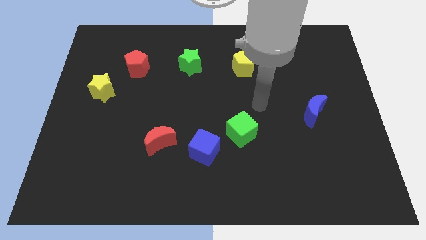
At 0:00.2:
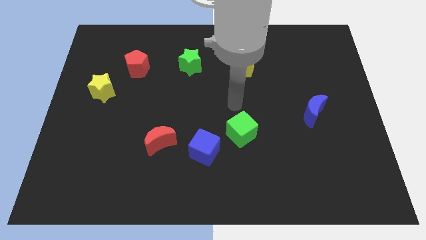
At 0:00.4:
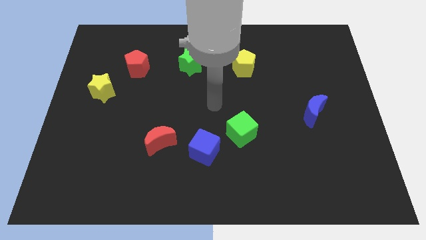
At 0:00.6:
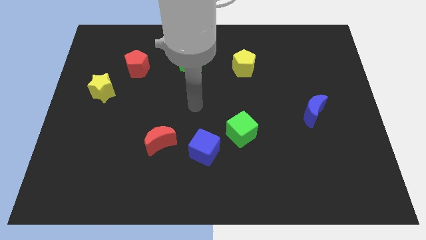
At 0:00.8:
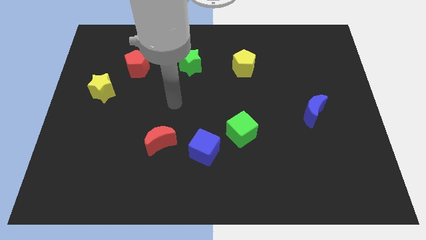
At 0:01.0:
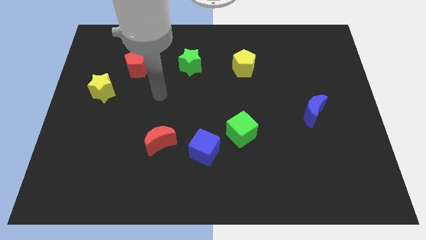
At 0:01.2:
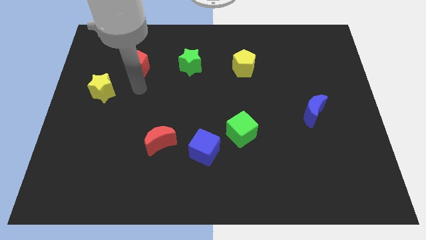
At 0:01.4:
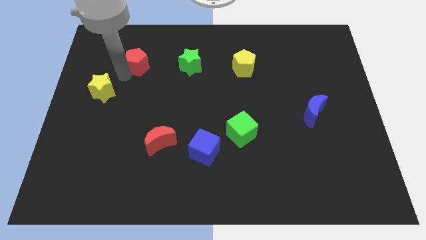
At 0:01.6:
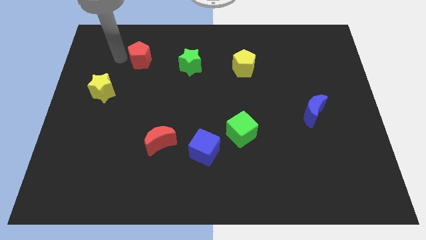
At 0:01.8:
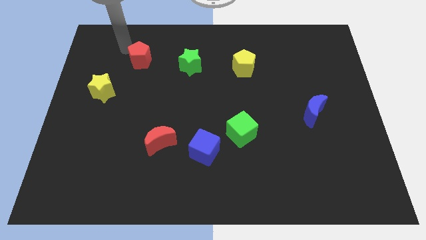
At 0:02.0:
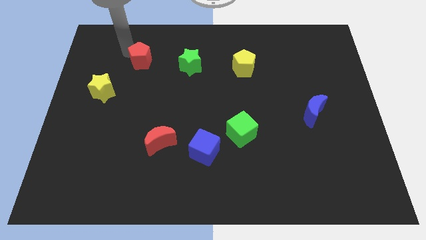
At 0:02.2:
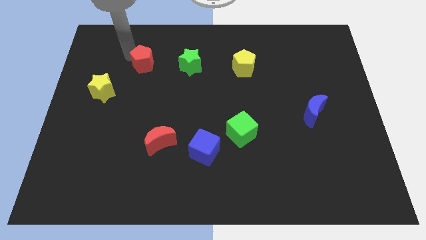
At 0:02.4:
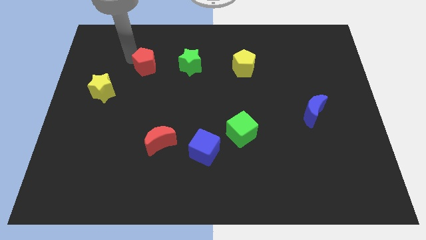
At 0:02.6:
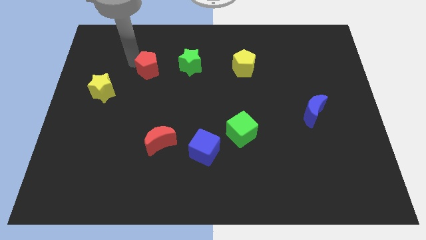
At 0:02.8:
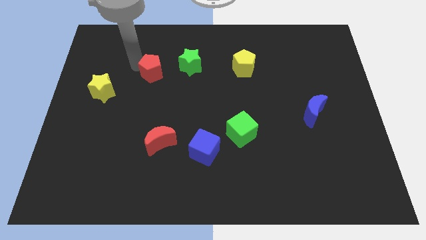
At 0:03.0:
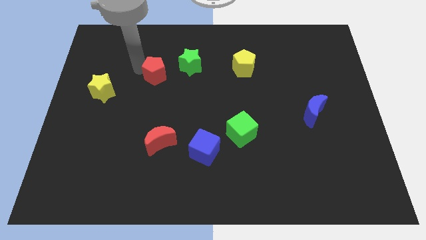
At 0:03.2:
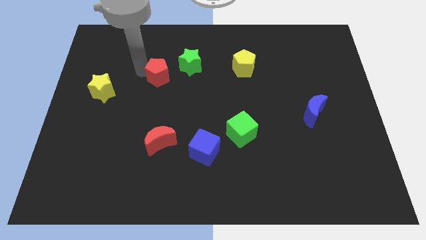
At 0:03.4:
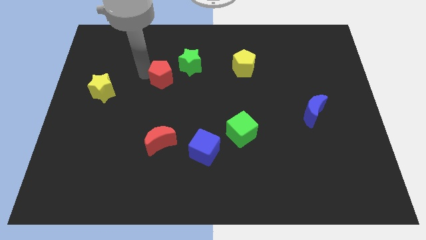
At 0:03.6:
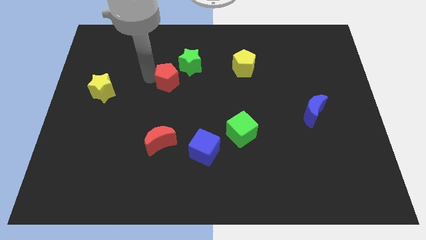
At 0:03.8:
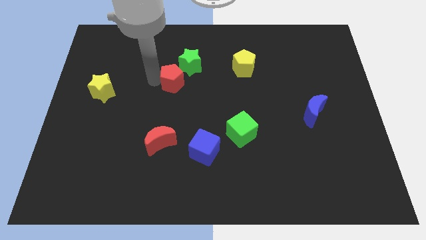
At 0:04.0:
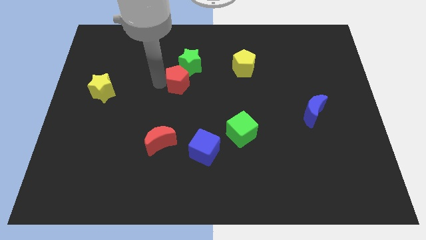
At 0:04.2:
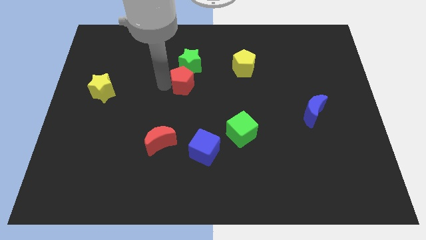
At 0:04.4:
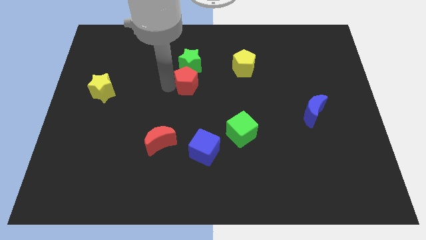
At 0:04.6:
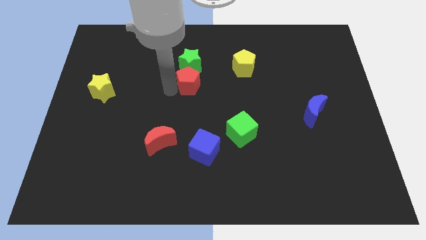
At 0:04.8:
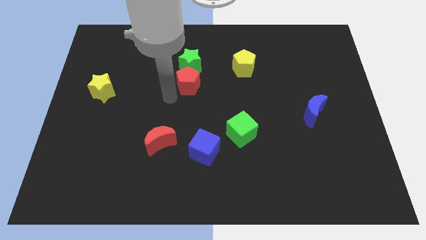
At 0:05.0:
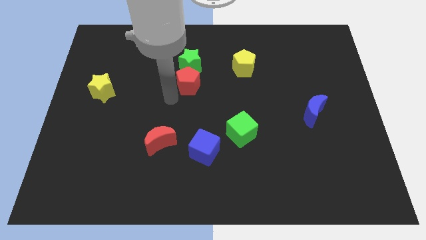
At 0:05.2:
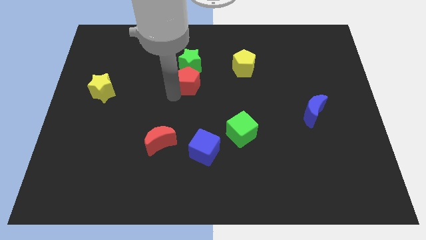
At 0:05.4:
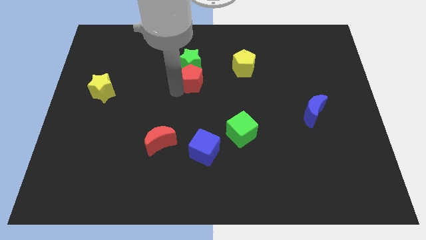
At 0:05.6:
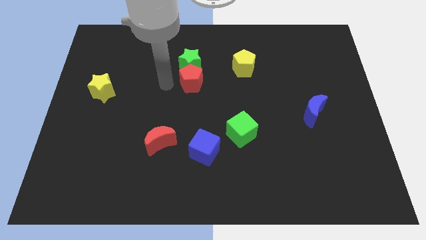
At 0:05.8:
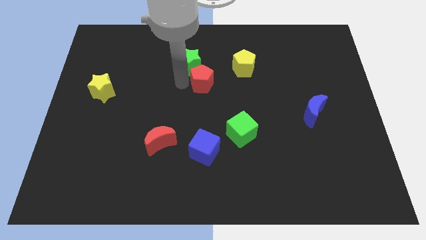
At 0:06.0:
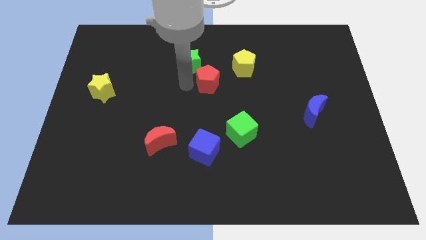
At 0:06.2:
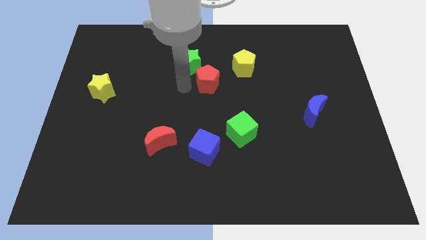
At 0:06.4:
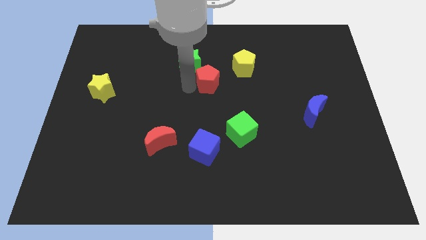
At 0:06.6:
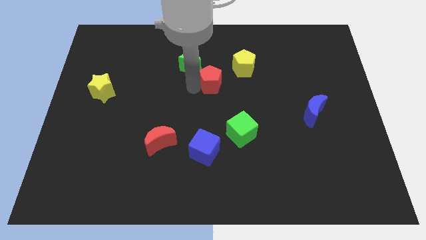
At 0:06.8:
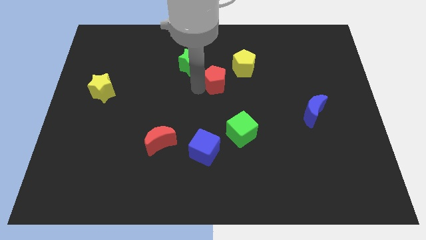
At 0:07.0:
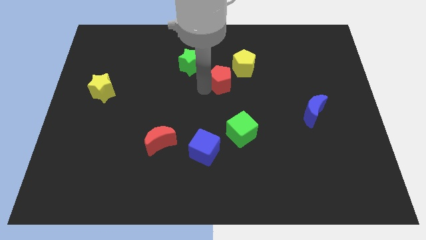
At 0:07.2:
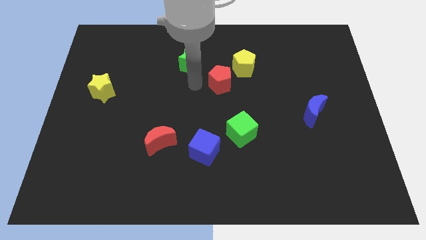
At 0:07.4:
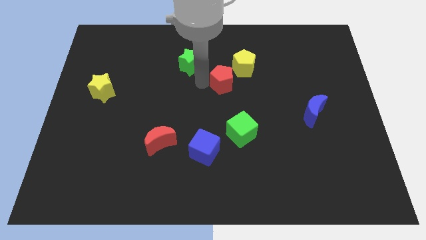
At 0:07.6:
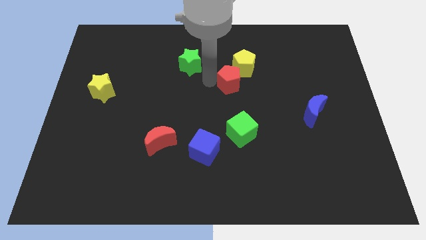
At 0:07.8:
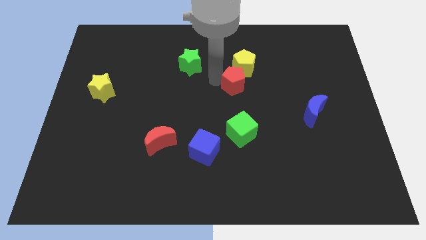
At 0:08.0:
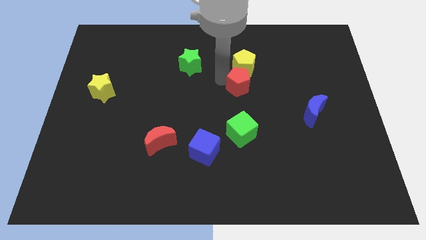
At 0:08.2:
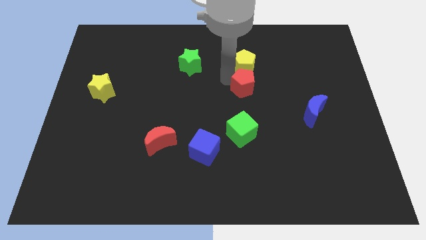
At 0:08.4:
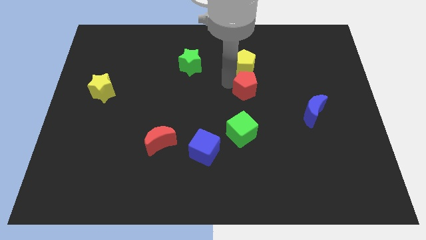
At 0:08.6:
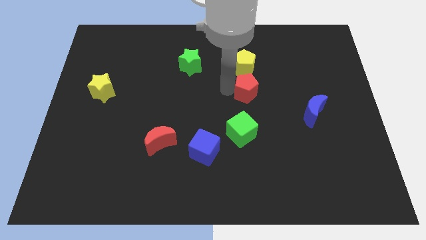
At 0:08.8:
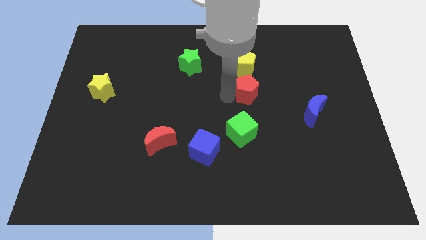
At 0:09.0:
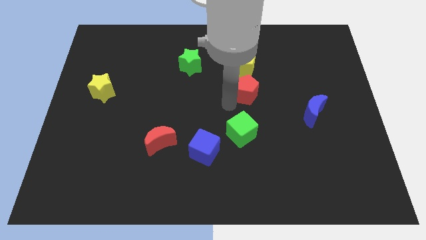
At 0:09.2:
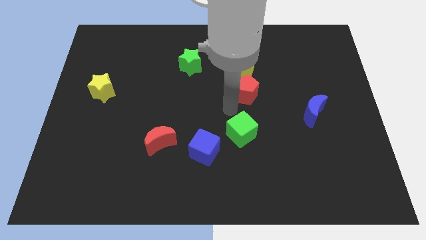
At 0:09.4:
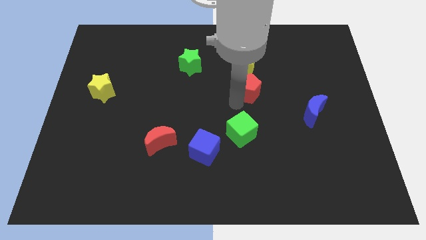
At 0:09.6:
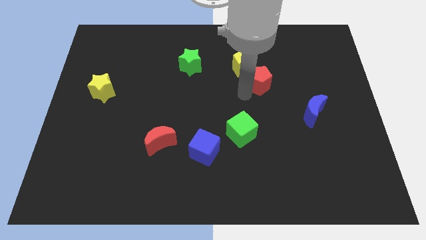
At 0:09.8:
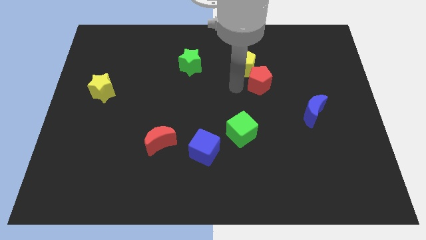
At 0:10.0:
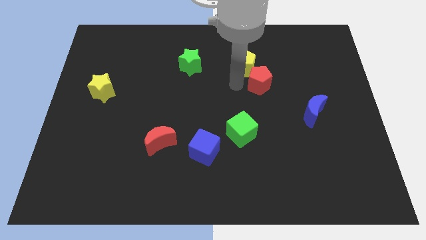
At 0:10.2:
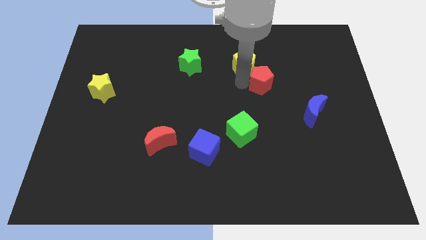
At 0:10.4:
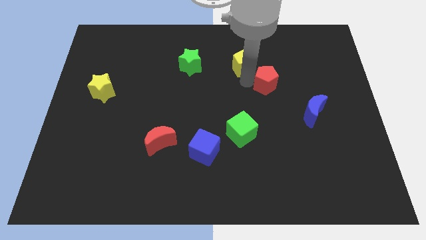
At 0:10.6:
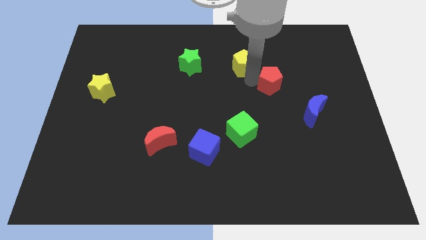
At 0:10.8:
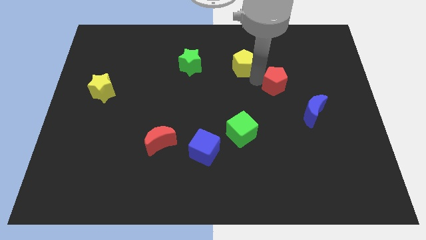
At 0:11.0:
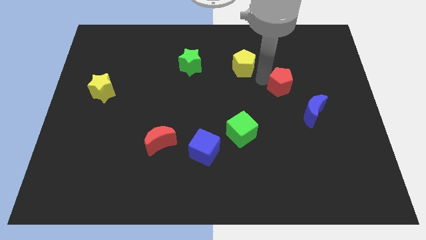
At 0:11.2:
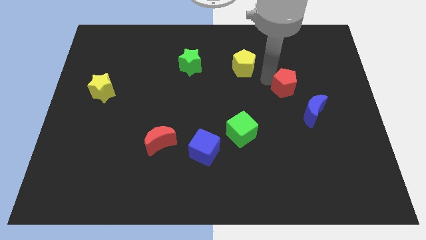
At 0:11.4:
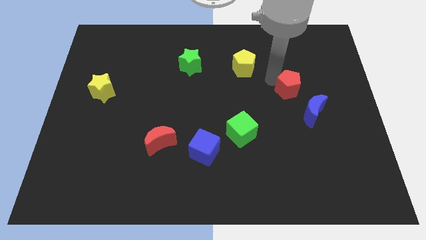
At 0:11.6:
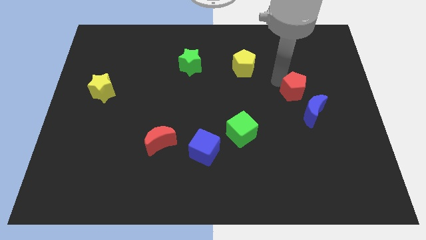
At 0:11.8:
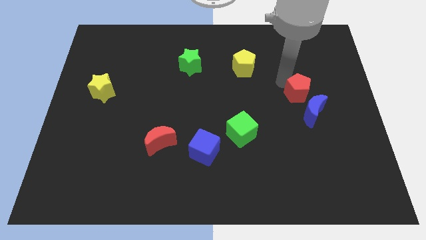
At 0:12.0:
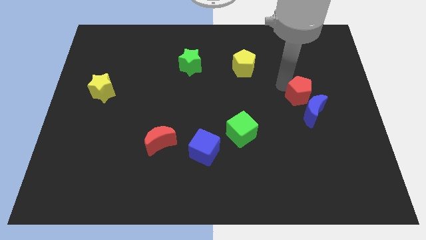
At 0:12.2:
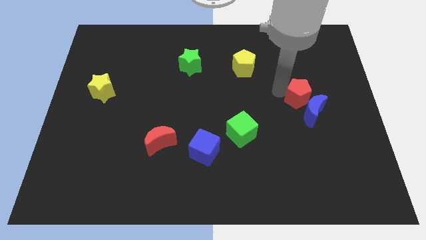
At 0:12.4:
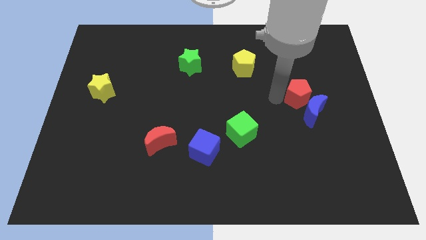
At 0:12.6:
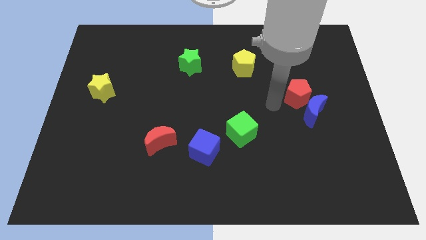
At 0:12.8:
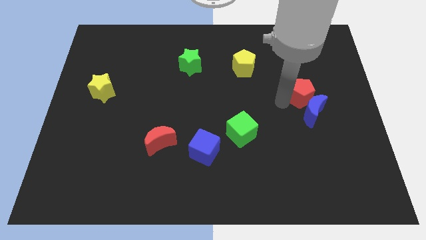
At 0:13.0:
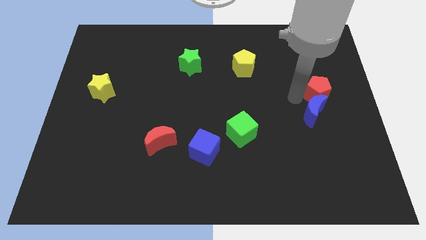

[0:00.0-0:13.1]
move the red pentagon to the center right

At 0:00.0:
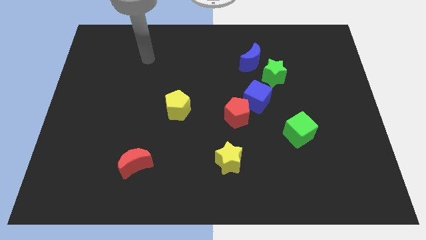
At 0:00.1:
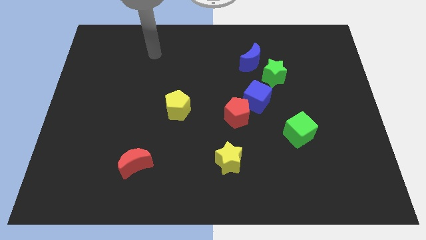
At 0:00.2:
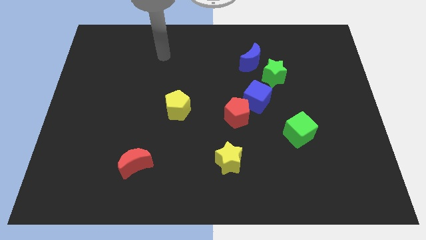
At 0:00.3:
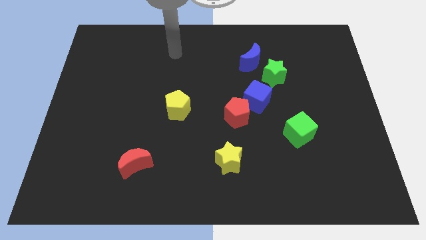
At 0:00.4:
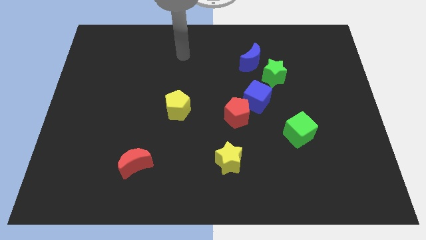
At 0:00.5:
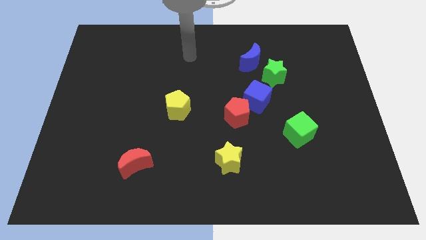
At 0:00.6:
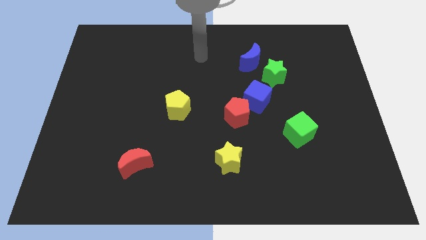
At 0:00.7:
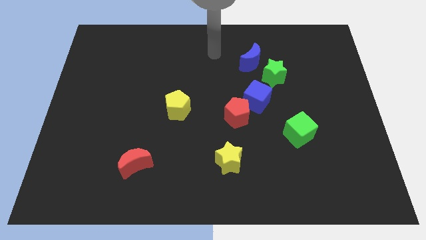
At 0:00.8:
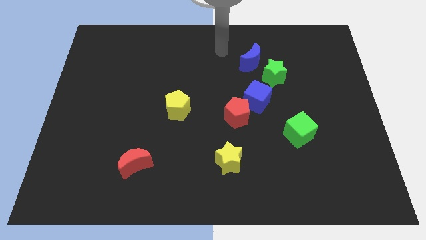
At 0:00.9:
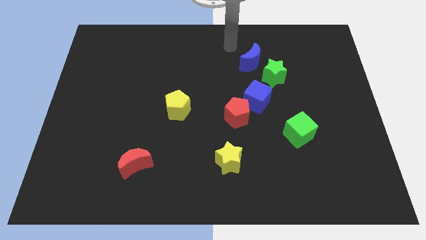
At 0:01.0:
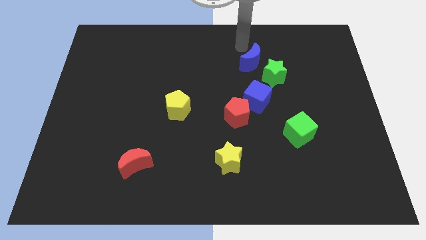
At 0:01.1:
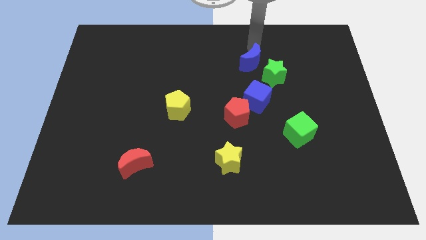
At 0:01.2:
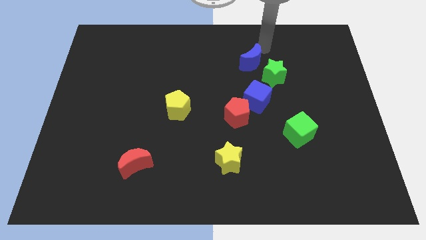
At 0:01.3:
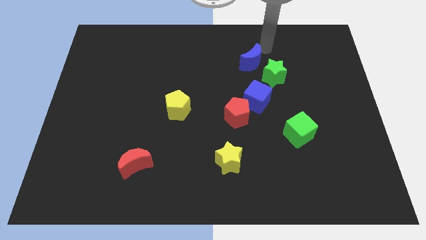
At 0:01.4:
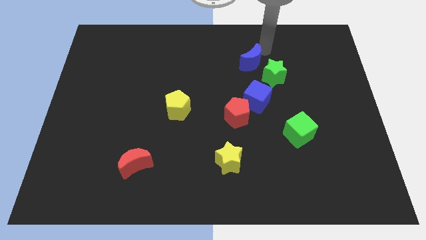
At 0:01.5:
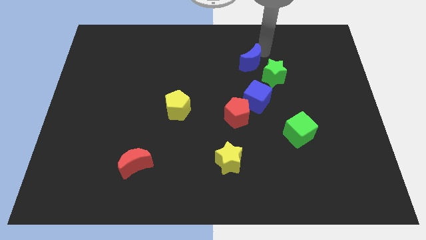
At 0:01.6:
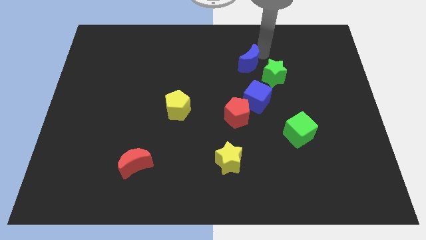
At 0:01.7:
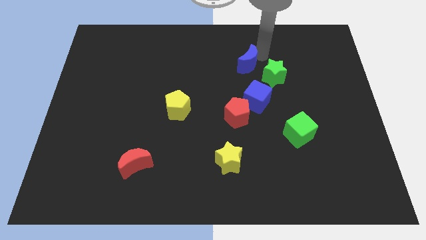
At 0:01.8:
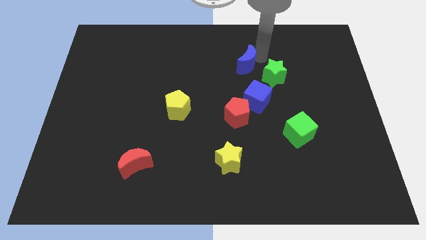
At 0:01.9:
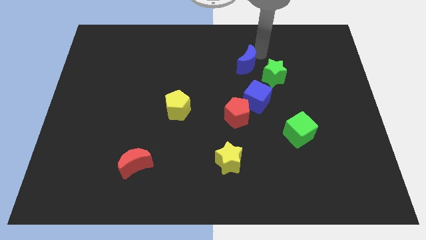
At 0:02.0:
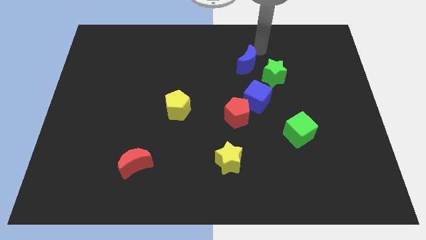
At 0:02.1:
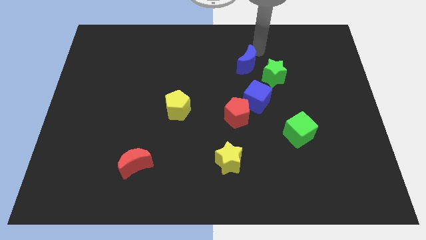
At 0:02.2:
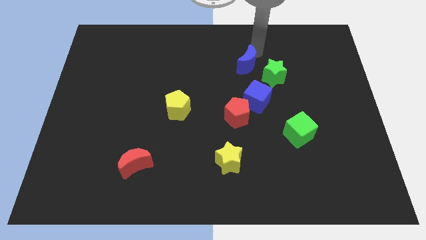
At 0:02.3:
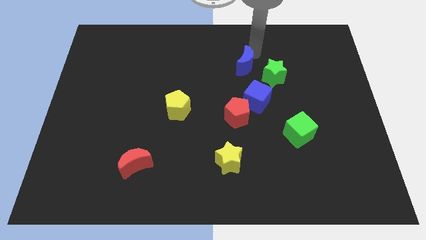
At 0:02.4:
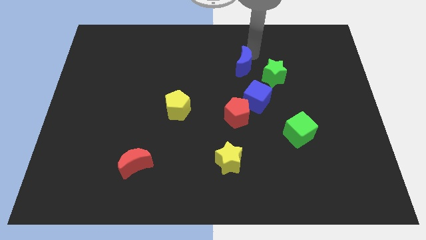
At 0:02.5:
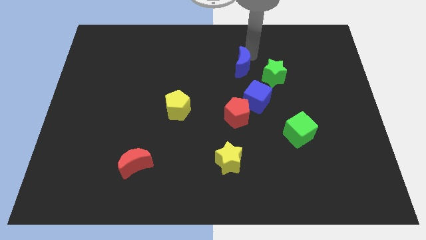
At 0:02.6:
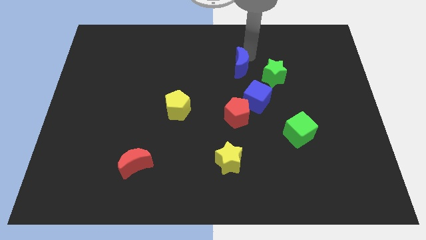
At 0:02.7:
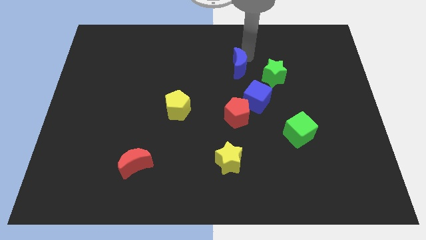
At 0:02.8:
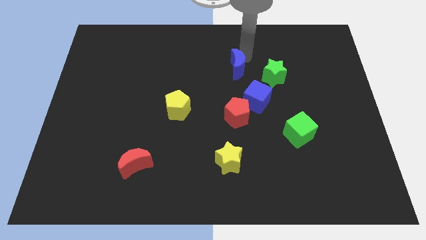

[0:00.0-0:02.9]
slide the blue moon to the middle
